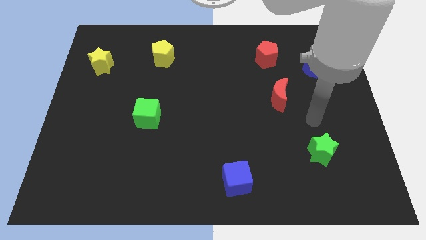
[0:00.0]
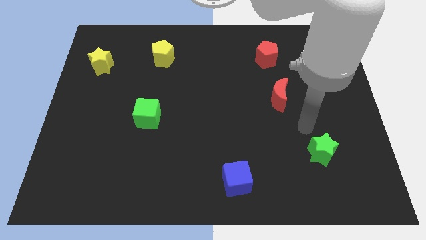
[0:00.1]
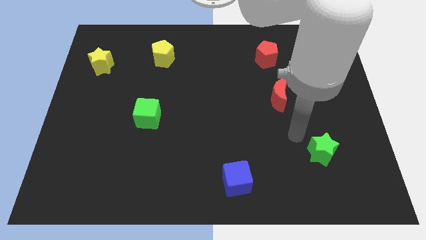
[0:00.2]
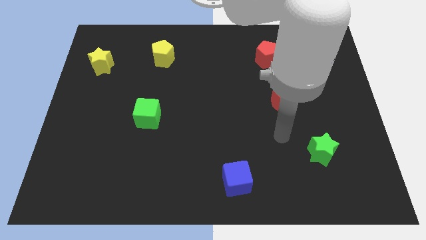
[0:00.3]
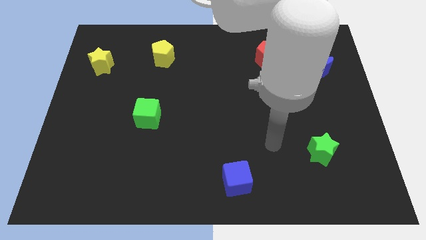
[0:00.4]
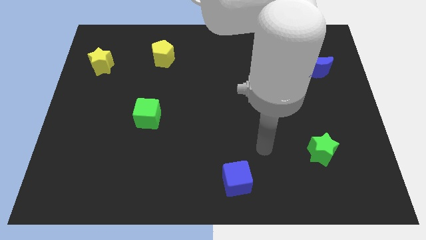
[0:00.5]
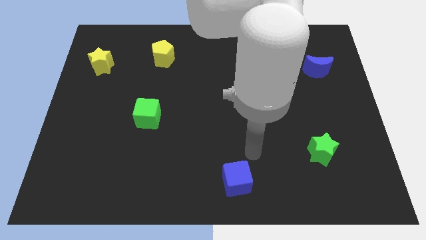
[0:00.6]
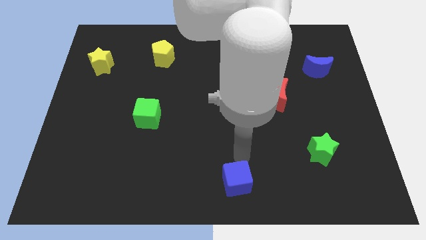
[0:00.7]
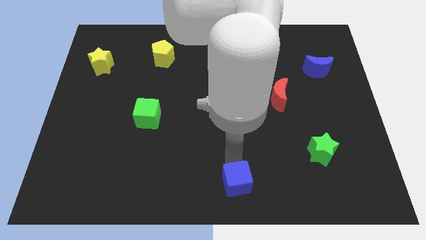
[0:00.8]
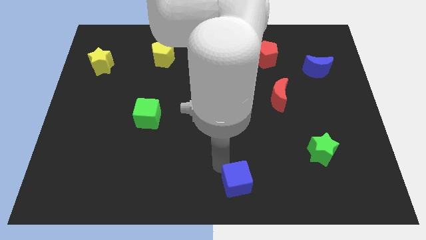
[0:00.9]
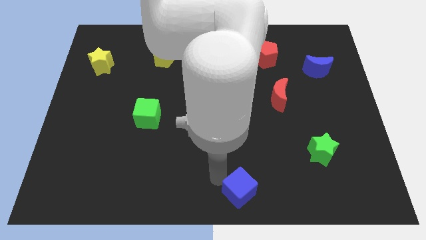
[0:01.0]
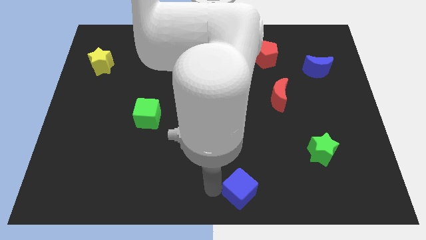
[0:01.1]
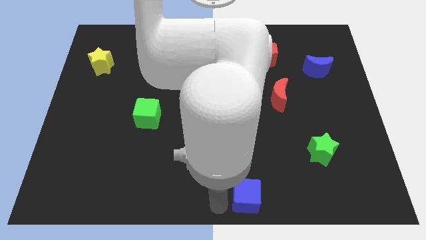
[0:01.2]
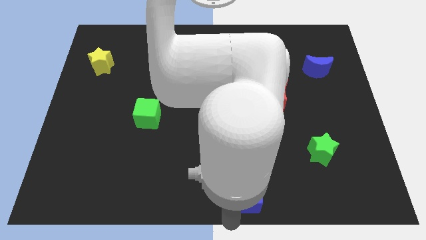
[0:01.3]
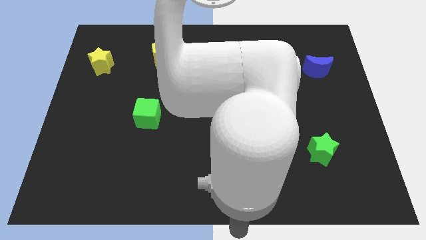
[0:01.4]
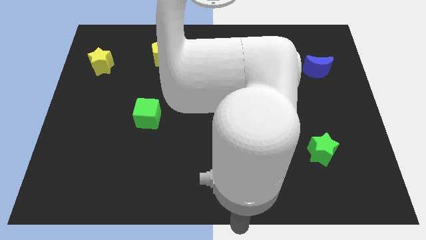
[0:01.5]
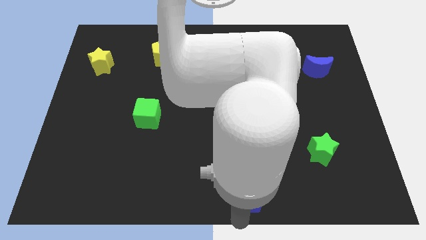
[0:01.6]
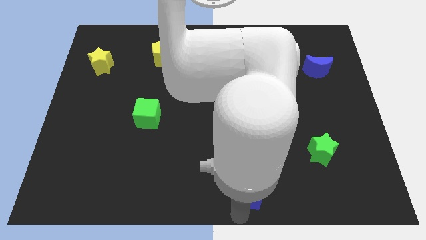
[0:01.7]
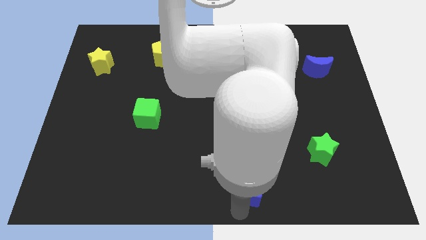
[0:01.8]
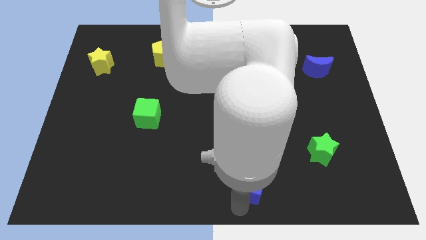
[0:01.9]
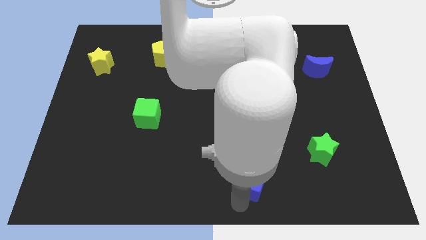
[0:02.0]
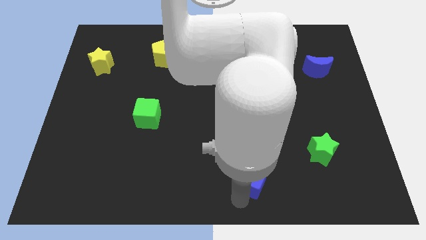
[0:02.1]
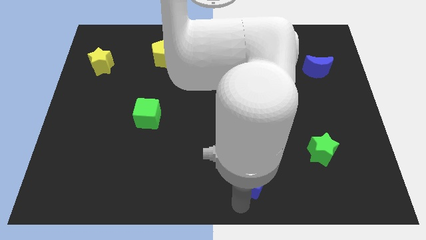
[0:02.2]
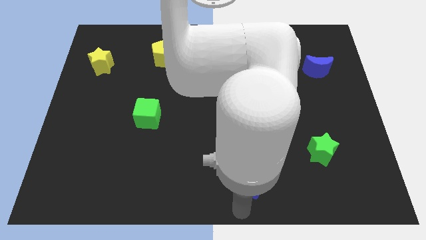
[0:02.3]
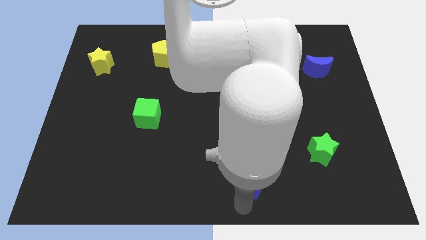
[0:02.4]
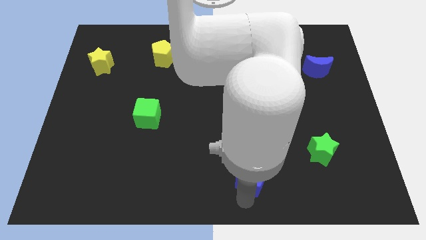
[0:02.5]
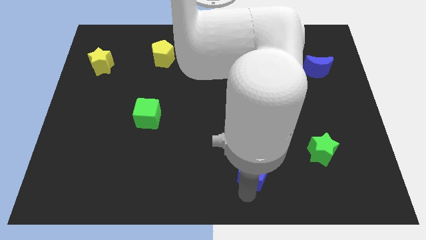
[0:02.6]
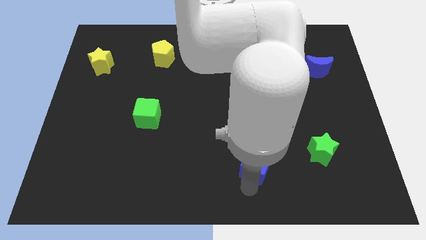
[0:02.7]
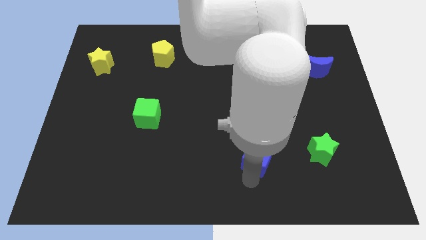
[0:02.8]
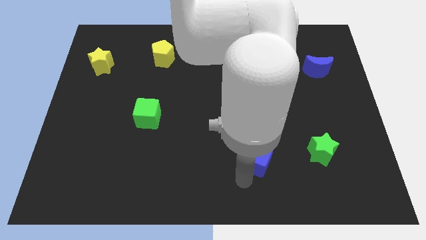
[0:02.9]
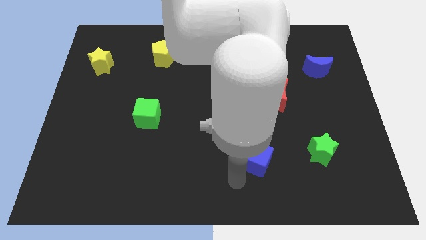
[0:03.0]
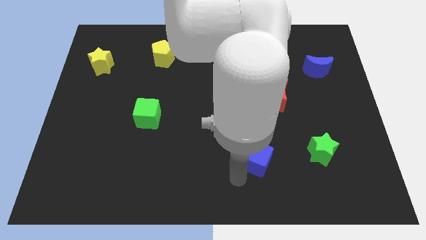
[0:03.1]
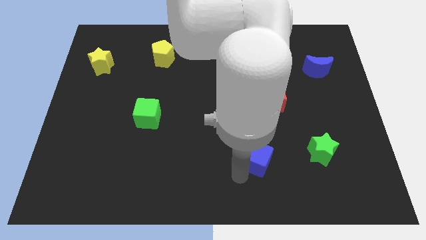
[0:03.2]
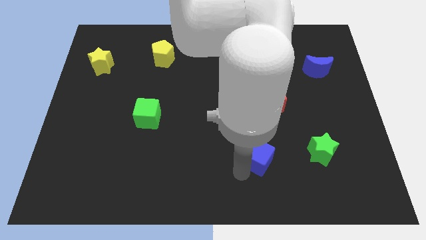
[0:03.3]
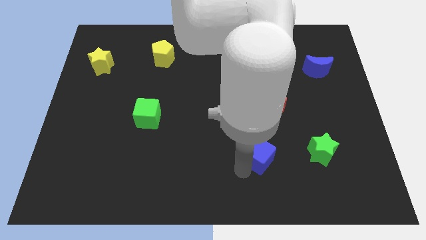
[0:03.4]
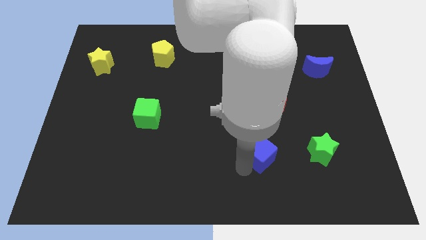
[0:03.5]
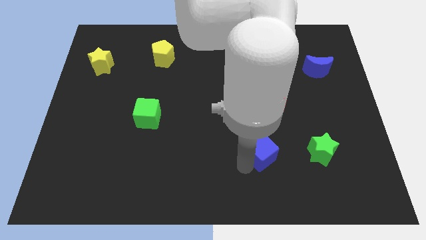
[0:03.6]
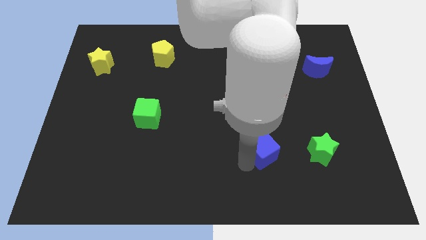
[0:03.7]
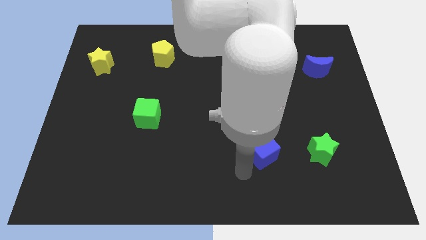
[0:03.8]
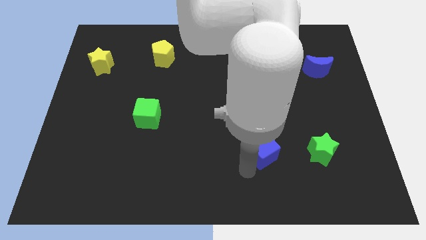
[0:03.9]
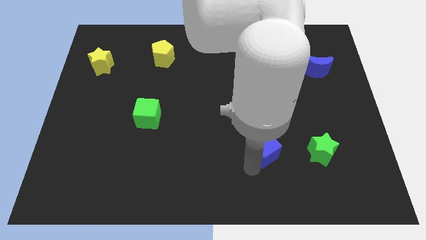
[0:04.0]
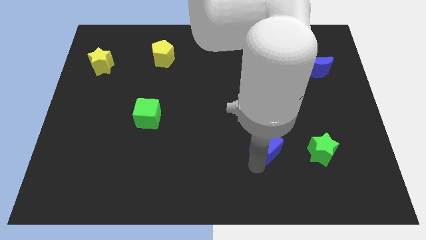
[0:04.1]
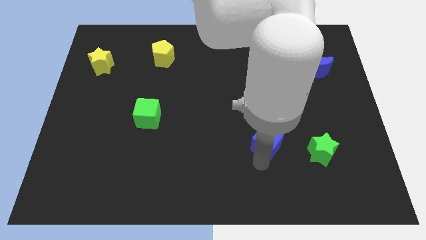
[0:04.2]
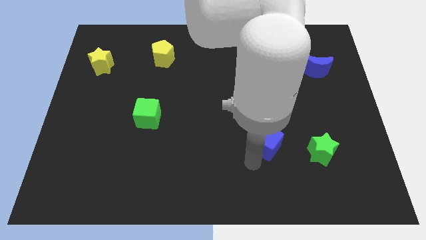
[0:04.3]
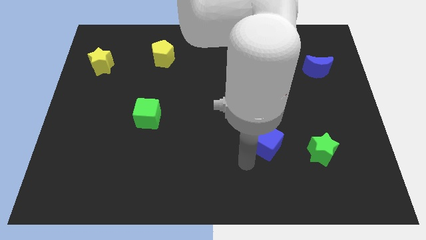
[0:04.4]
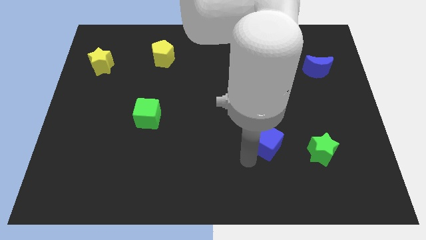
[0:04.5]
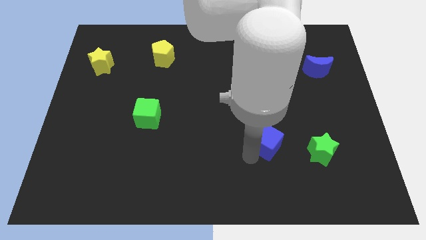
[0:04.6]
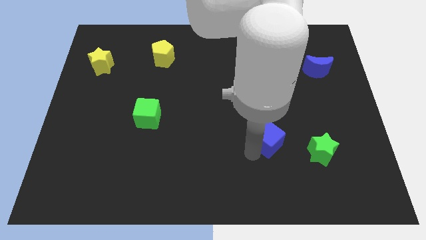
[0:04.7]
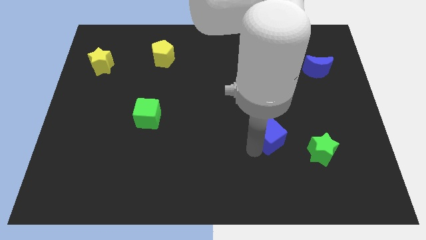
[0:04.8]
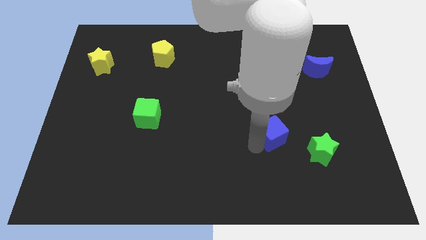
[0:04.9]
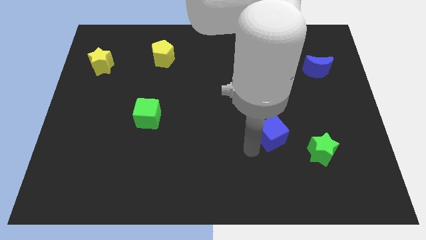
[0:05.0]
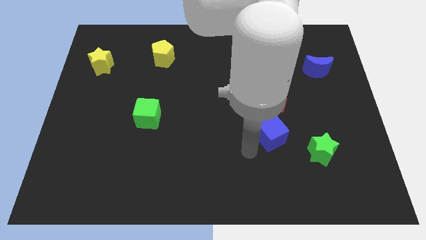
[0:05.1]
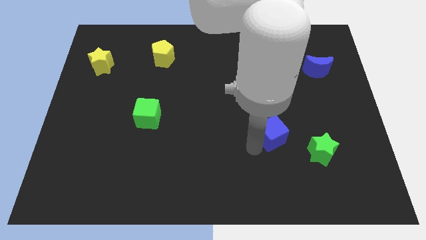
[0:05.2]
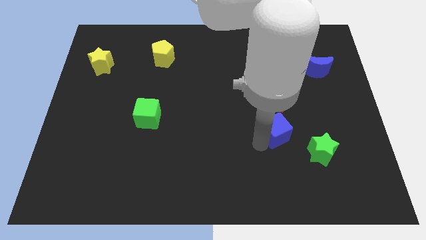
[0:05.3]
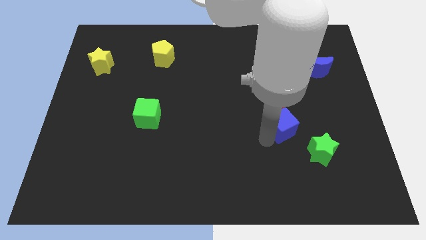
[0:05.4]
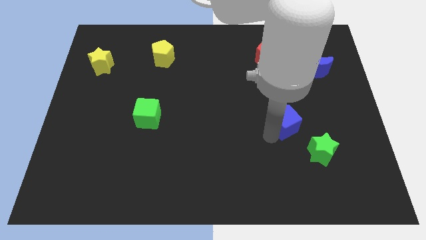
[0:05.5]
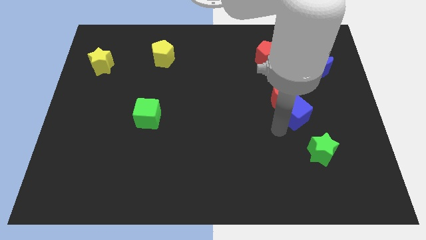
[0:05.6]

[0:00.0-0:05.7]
move the blue cube up and to the right

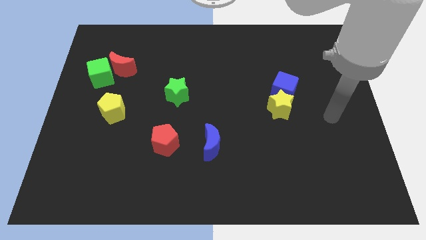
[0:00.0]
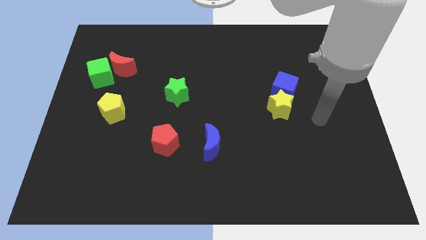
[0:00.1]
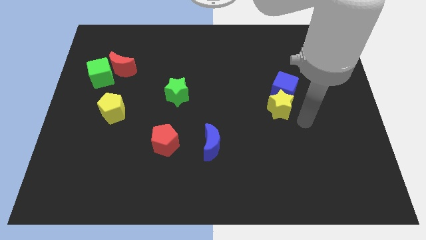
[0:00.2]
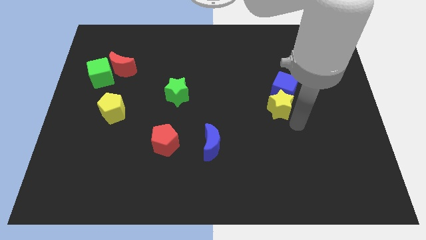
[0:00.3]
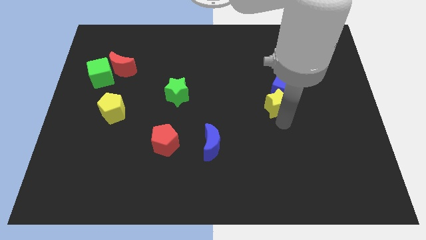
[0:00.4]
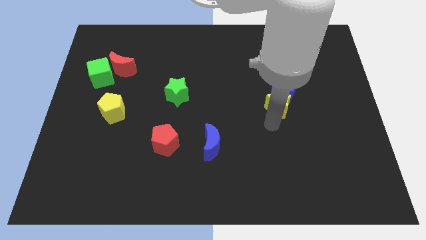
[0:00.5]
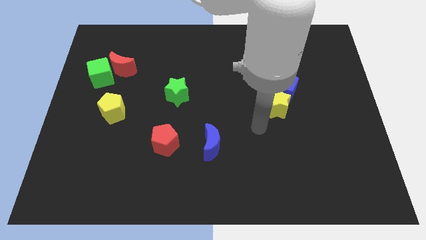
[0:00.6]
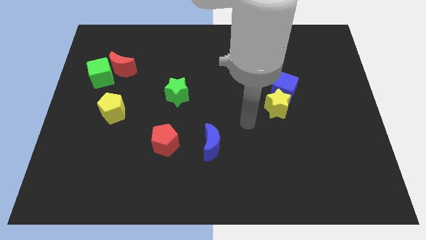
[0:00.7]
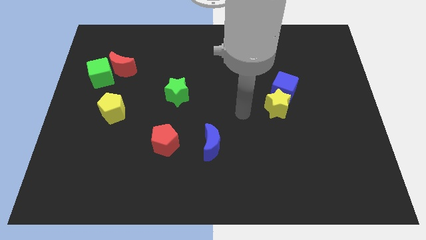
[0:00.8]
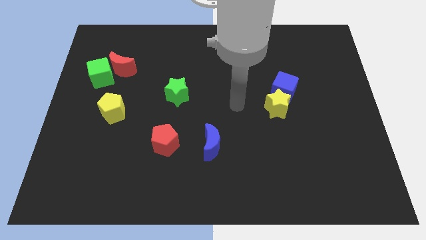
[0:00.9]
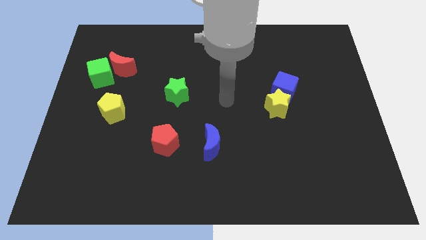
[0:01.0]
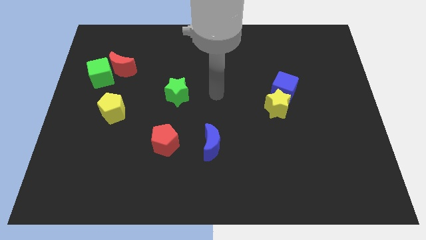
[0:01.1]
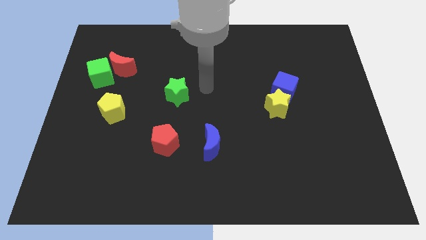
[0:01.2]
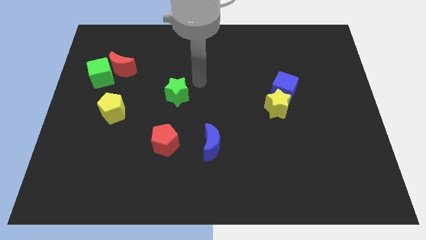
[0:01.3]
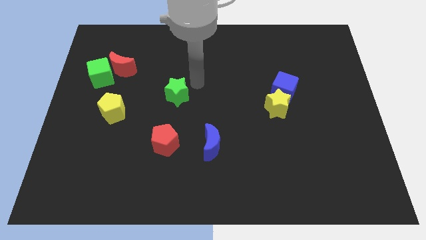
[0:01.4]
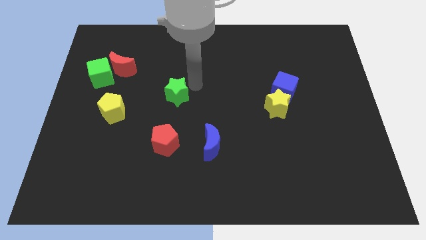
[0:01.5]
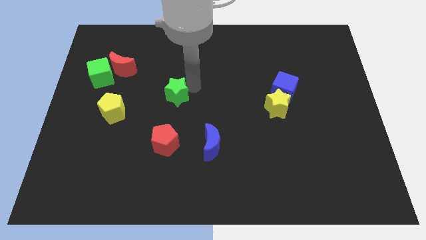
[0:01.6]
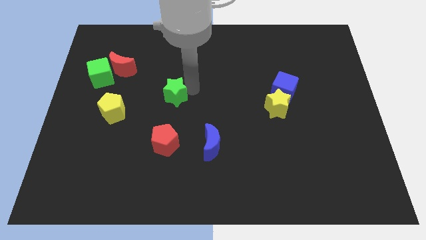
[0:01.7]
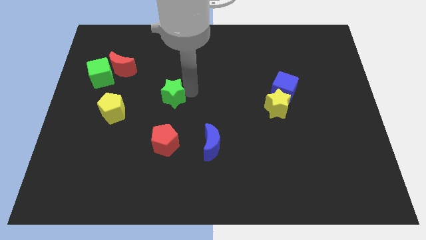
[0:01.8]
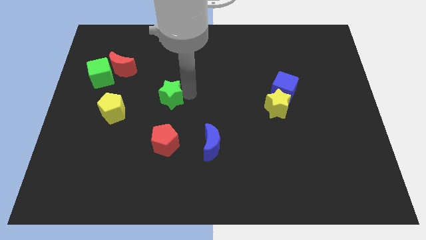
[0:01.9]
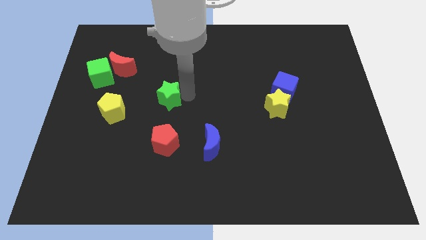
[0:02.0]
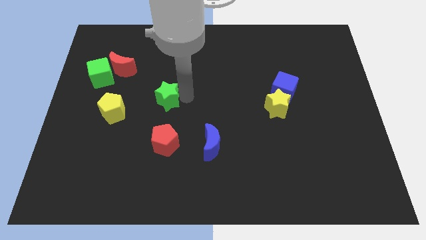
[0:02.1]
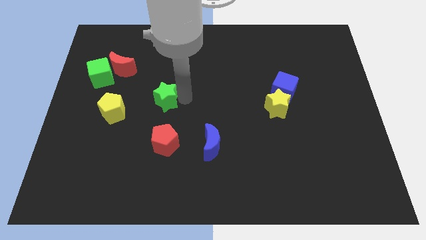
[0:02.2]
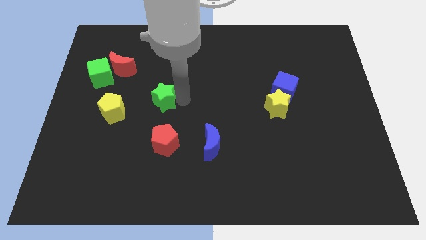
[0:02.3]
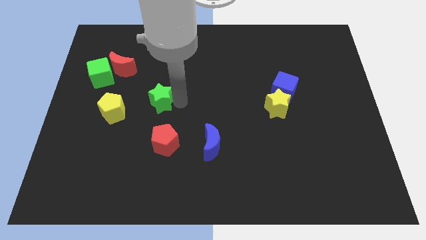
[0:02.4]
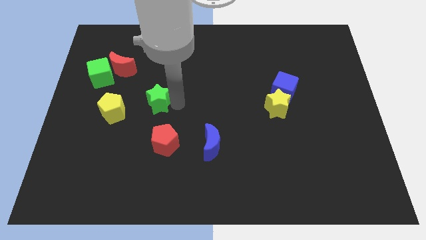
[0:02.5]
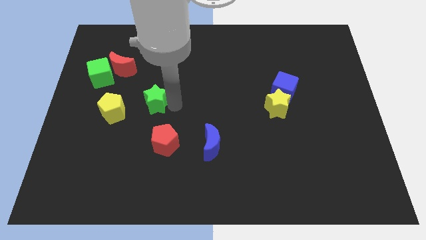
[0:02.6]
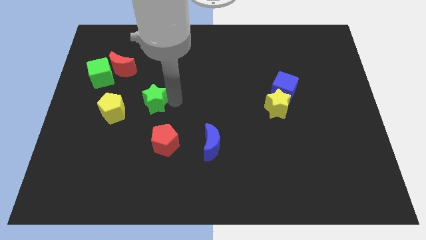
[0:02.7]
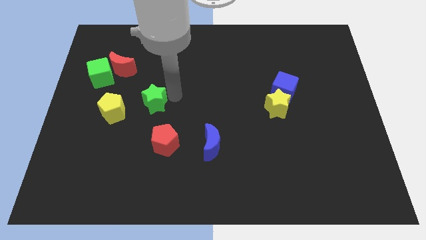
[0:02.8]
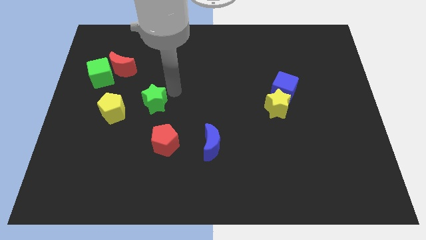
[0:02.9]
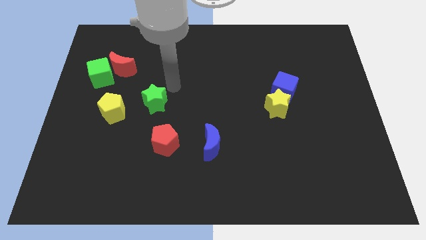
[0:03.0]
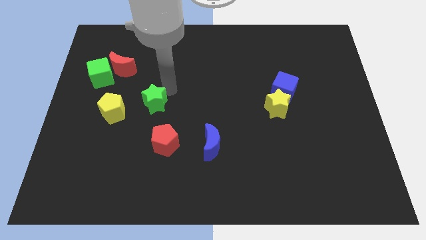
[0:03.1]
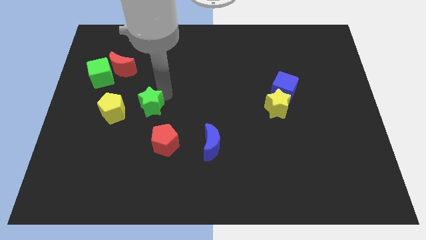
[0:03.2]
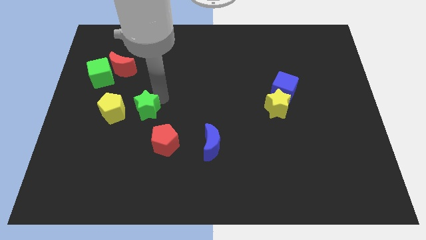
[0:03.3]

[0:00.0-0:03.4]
slightly push the green star diagonally down and to the left
